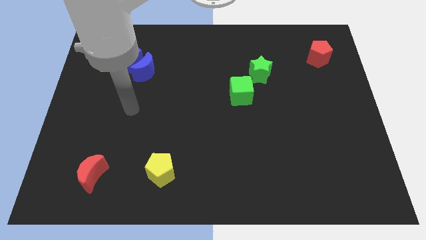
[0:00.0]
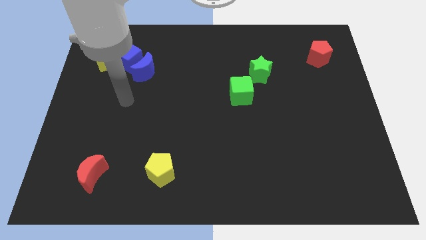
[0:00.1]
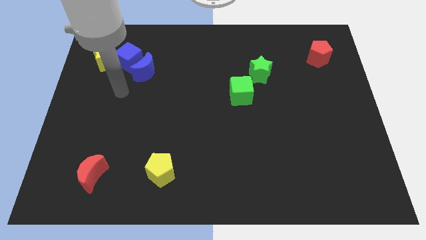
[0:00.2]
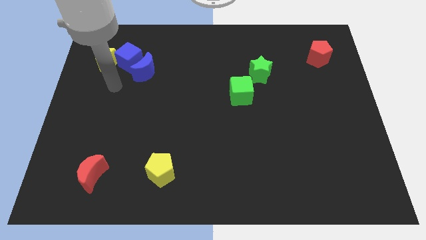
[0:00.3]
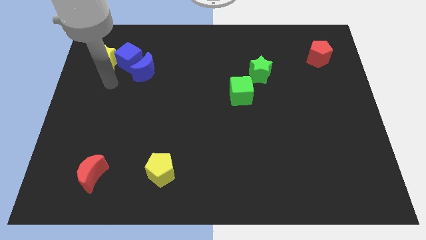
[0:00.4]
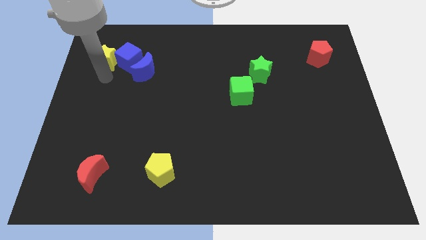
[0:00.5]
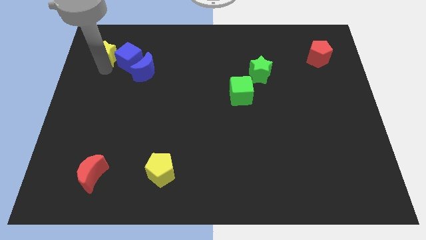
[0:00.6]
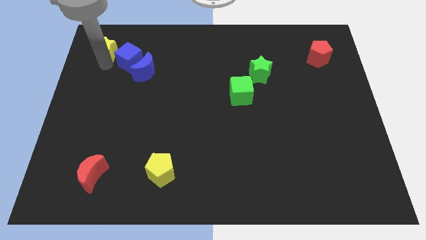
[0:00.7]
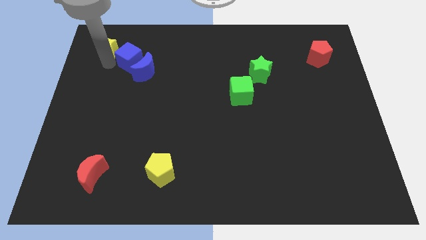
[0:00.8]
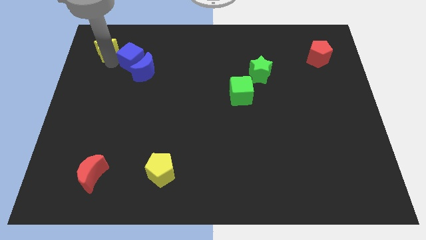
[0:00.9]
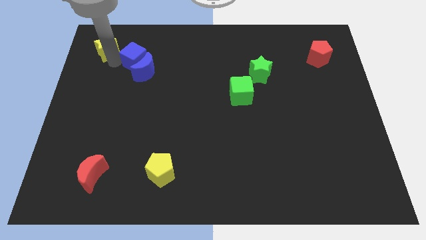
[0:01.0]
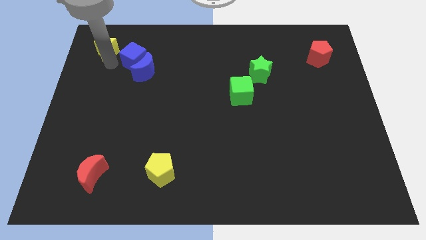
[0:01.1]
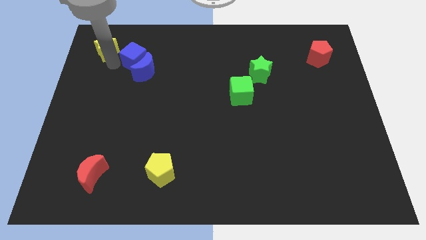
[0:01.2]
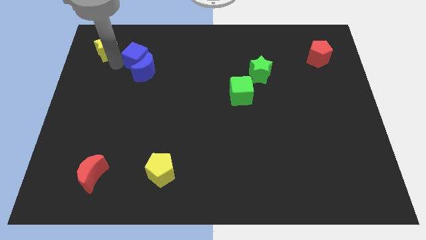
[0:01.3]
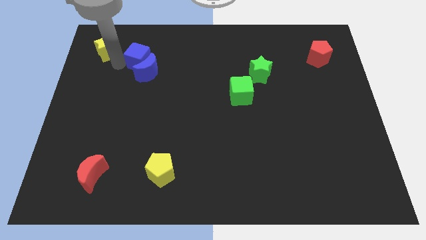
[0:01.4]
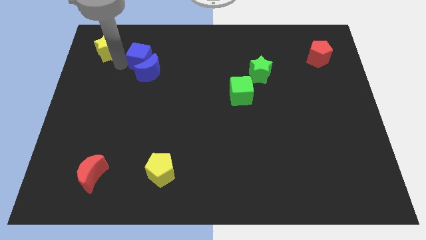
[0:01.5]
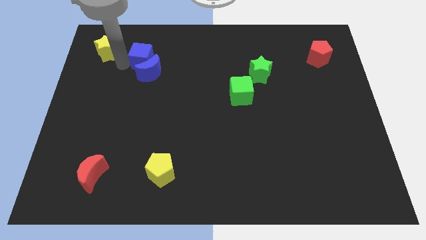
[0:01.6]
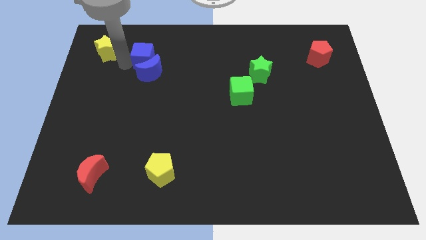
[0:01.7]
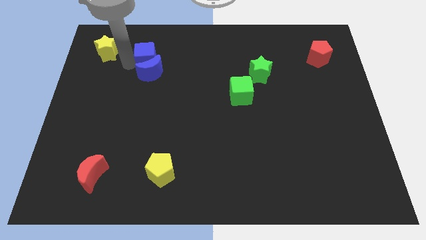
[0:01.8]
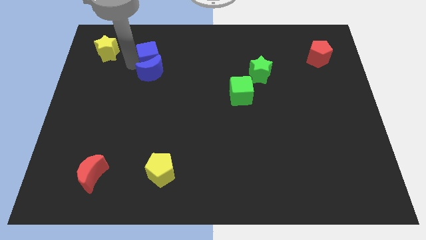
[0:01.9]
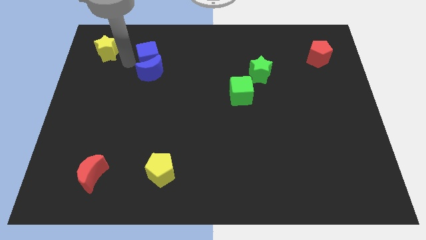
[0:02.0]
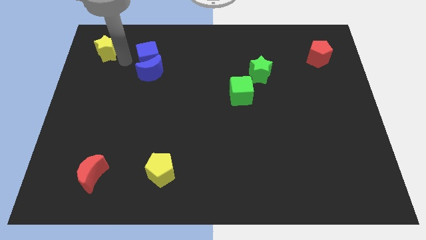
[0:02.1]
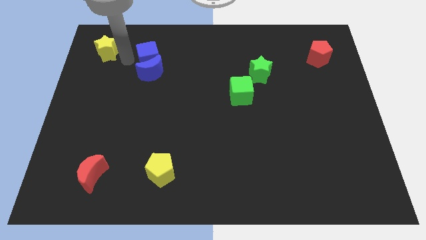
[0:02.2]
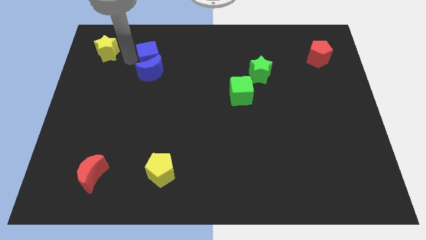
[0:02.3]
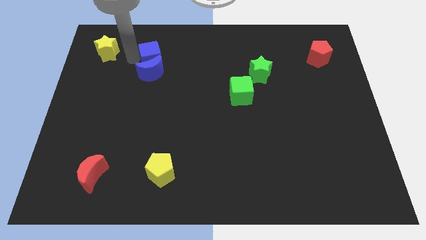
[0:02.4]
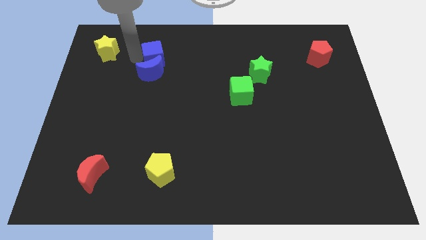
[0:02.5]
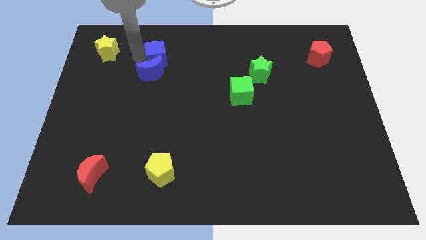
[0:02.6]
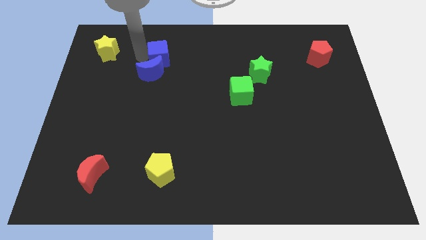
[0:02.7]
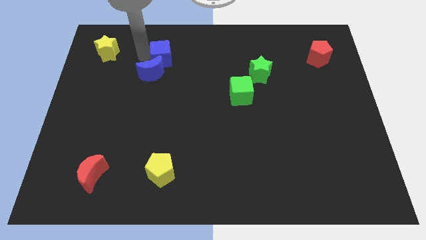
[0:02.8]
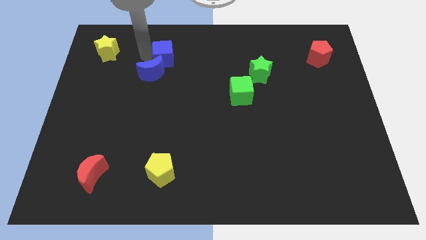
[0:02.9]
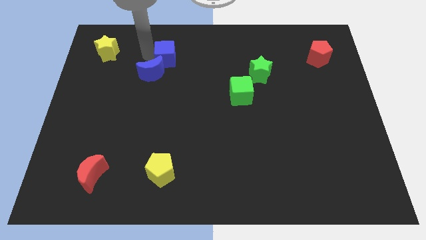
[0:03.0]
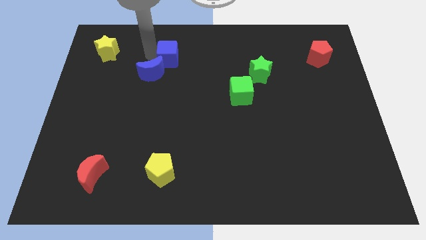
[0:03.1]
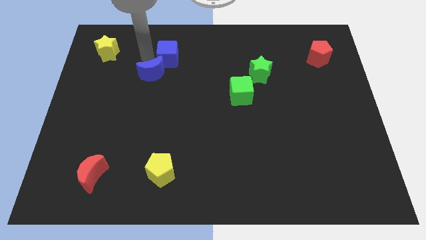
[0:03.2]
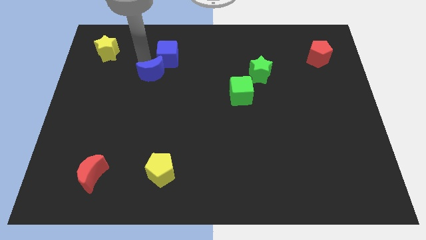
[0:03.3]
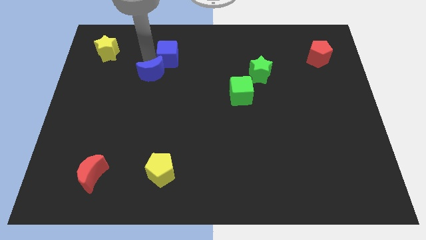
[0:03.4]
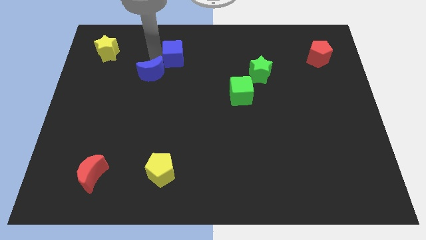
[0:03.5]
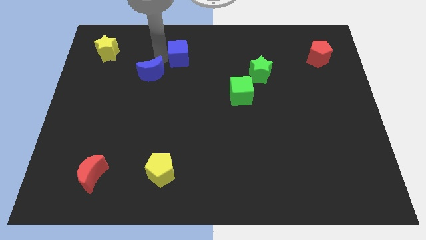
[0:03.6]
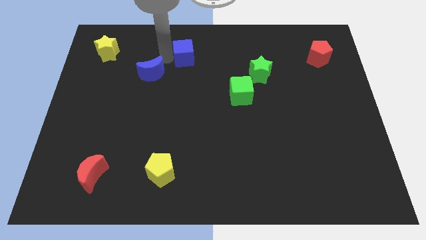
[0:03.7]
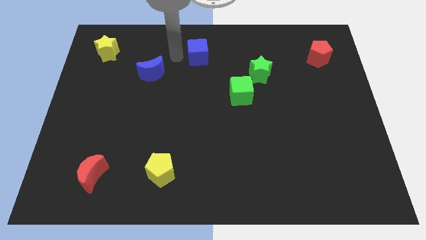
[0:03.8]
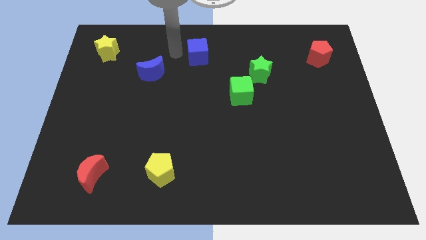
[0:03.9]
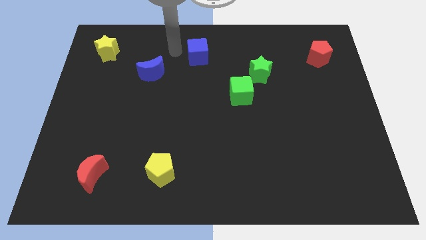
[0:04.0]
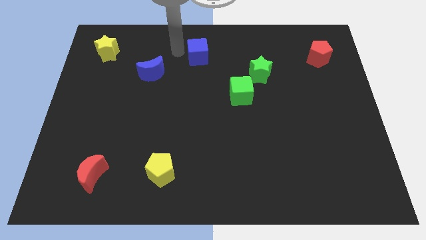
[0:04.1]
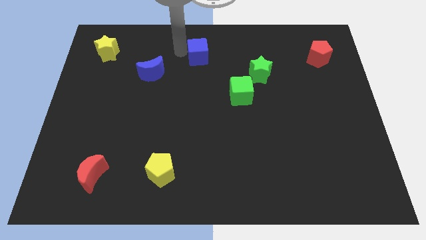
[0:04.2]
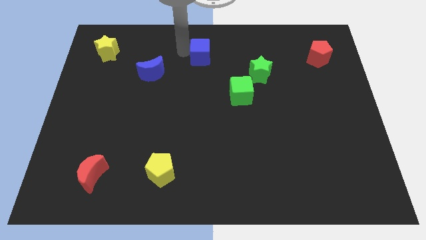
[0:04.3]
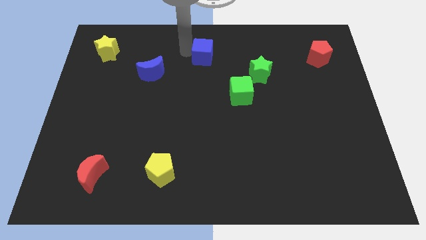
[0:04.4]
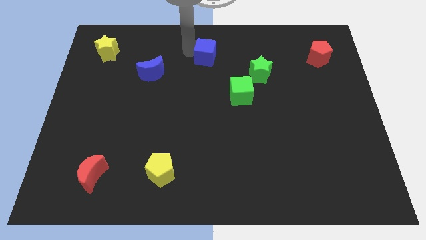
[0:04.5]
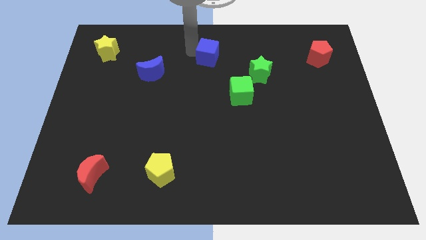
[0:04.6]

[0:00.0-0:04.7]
push the blue cube right

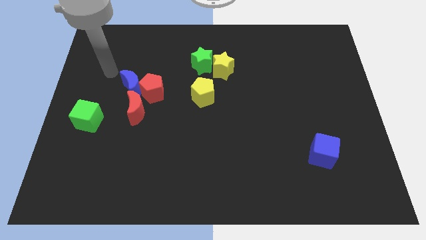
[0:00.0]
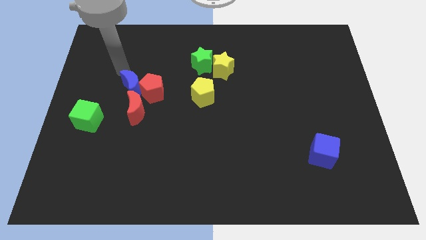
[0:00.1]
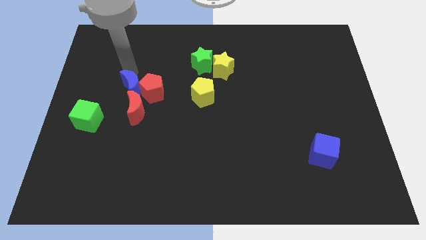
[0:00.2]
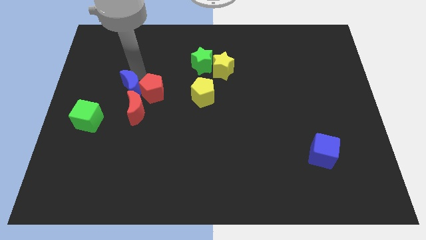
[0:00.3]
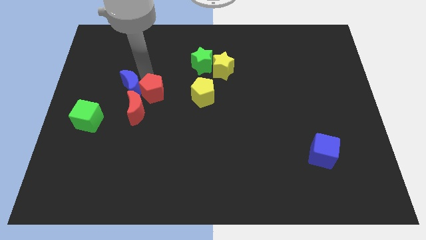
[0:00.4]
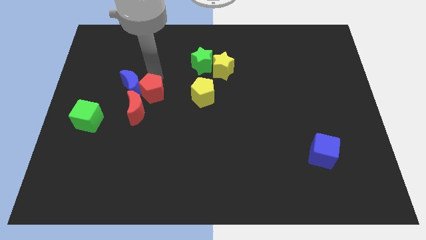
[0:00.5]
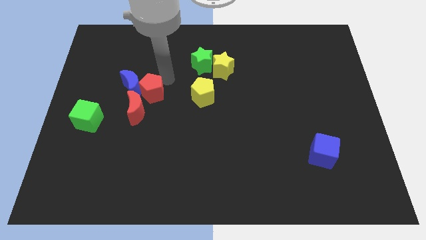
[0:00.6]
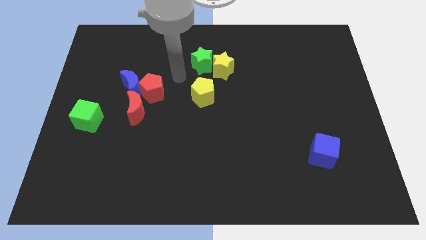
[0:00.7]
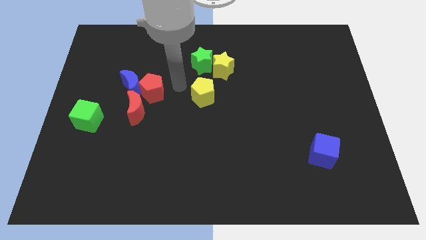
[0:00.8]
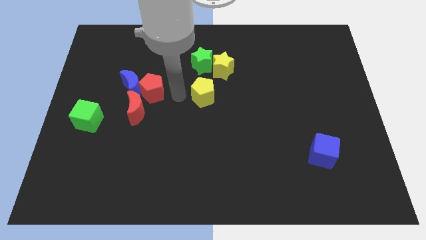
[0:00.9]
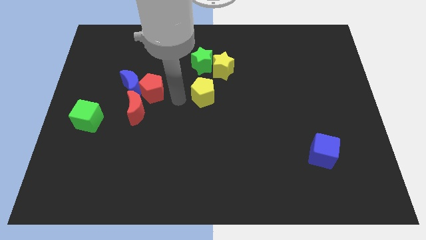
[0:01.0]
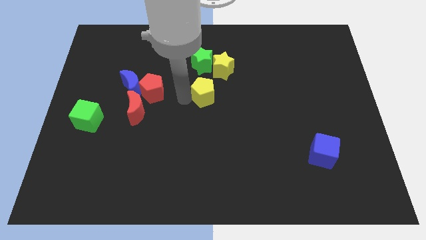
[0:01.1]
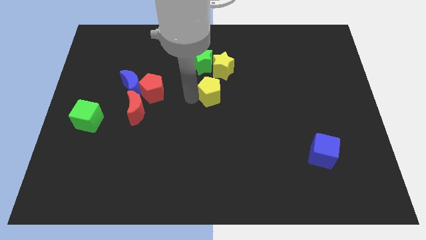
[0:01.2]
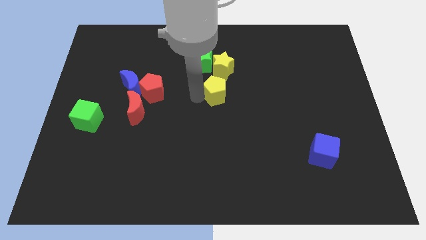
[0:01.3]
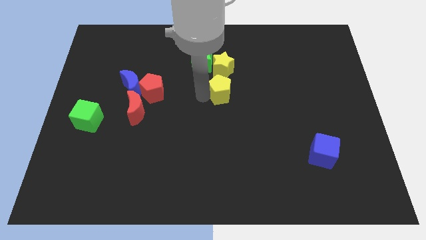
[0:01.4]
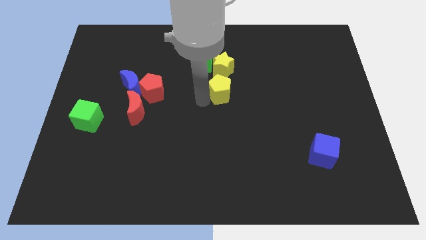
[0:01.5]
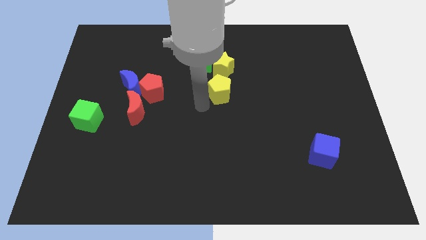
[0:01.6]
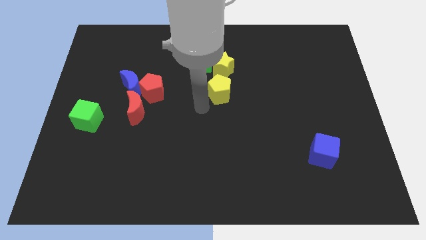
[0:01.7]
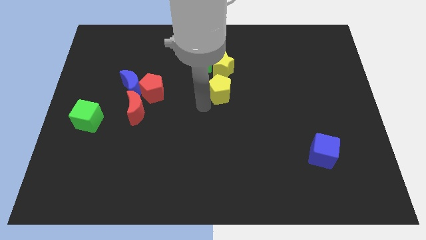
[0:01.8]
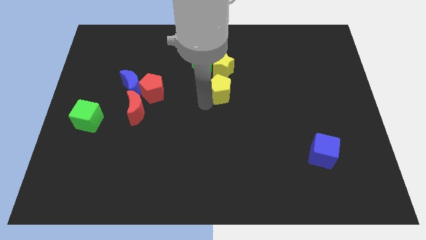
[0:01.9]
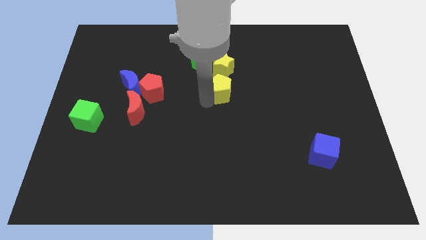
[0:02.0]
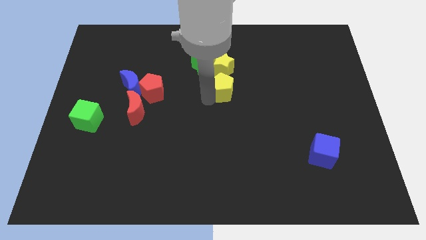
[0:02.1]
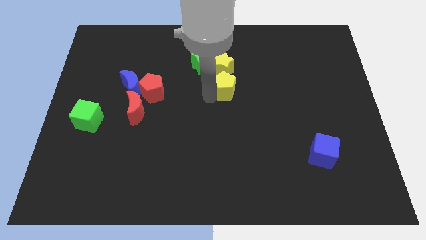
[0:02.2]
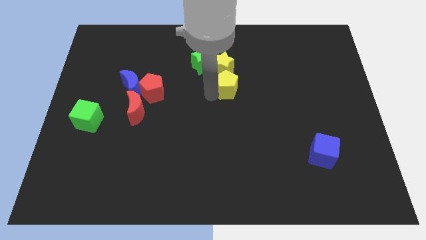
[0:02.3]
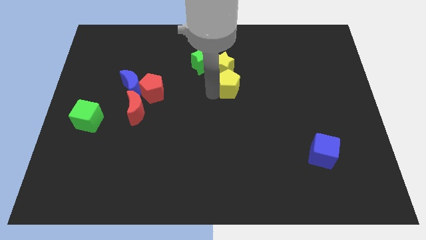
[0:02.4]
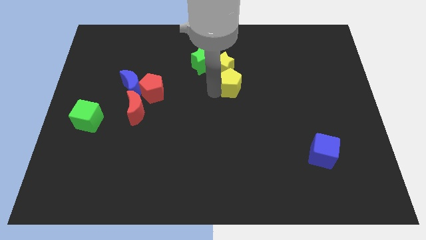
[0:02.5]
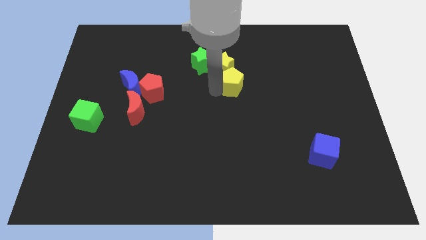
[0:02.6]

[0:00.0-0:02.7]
push the yellow pentagon up and then right a little bit

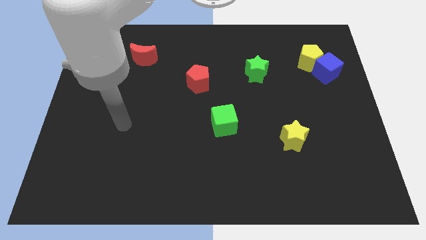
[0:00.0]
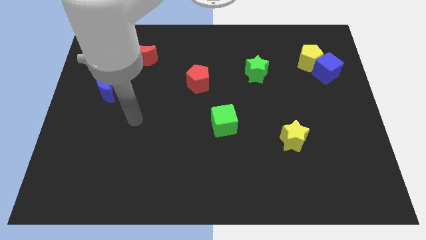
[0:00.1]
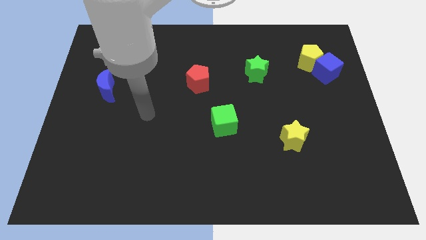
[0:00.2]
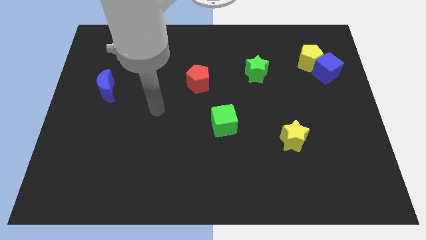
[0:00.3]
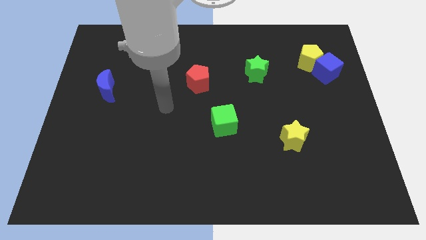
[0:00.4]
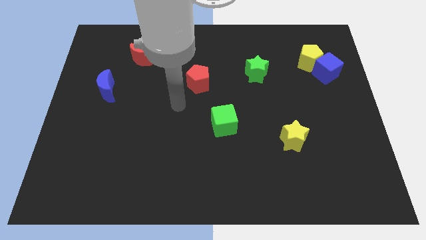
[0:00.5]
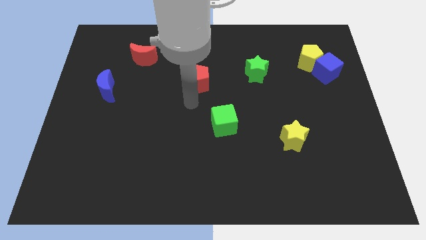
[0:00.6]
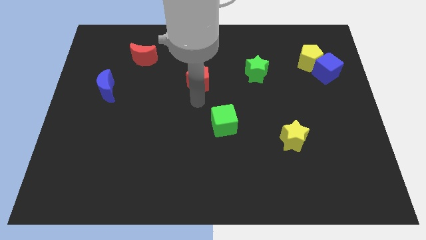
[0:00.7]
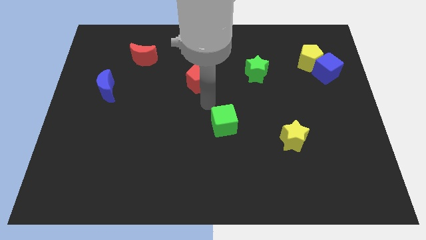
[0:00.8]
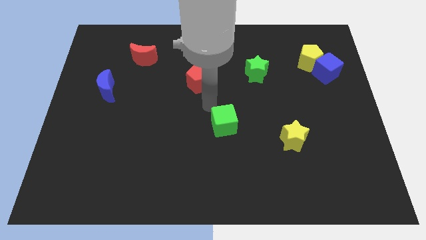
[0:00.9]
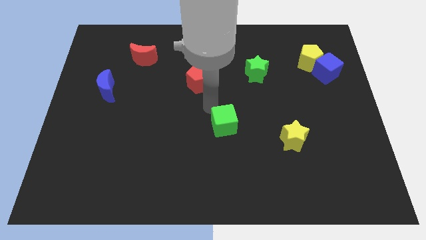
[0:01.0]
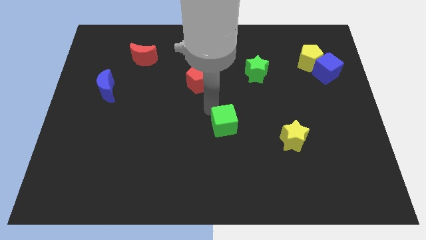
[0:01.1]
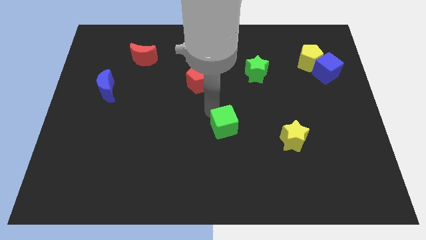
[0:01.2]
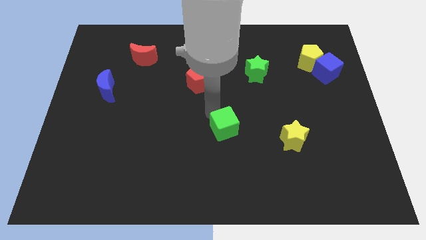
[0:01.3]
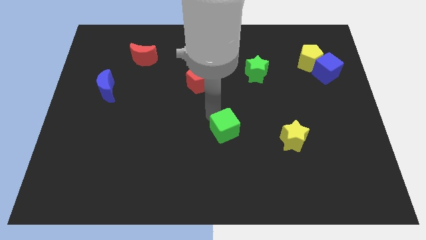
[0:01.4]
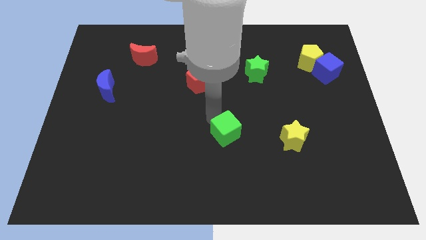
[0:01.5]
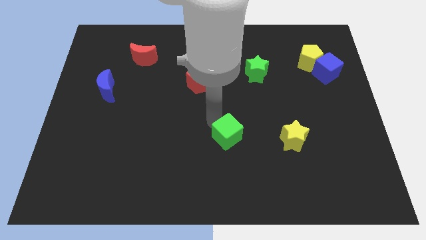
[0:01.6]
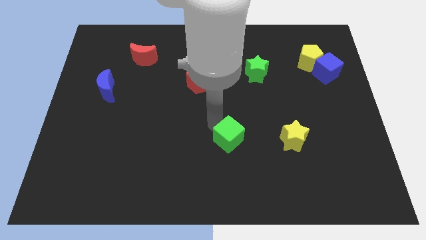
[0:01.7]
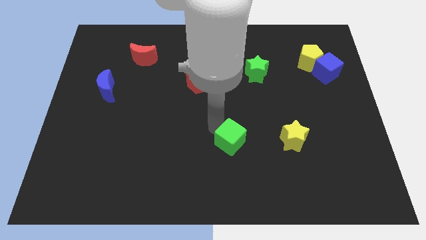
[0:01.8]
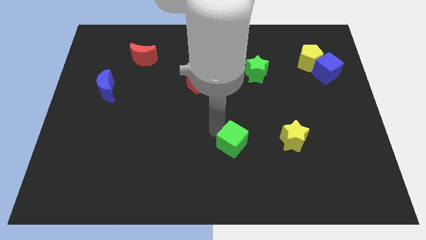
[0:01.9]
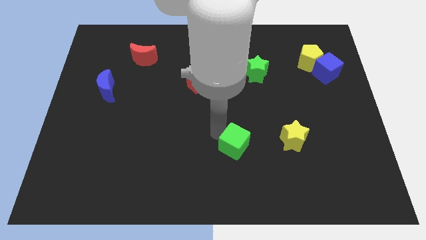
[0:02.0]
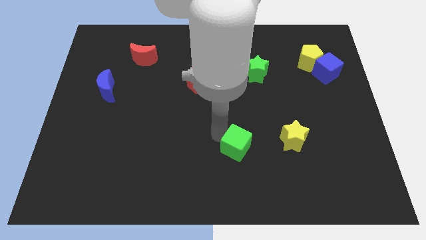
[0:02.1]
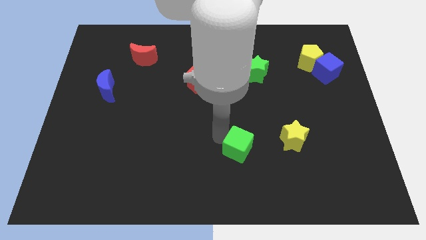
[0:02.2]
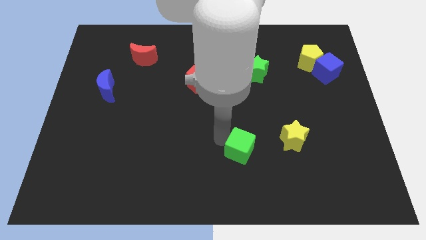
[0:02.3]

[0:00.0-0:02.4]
push the green cube a little diagonally downwards and to the right
